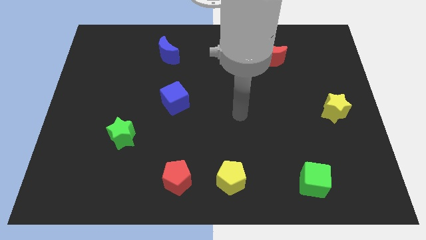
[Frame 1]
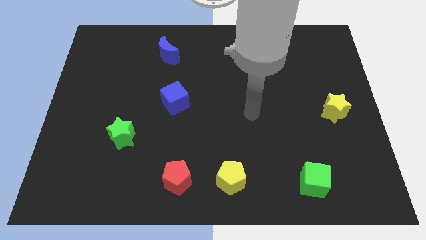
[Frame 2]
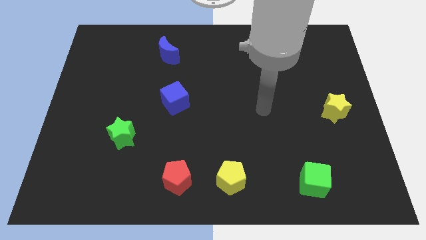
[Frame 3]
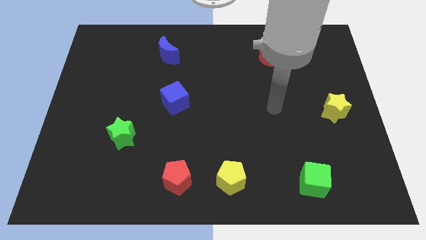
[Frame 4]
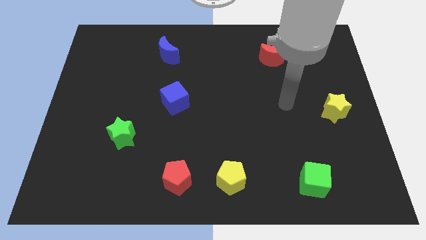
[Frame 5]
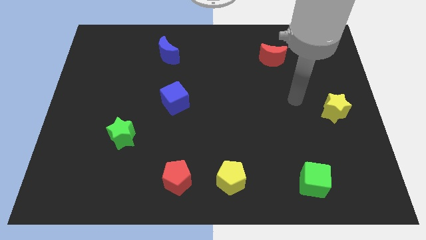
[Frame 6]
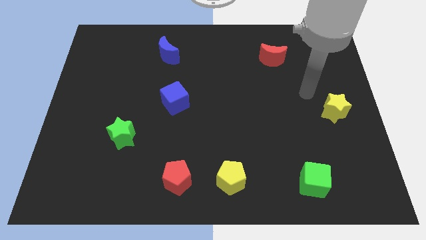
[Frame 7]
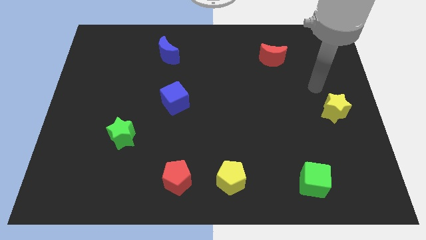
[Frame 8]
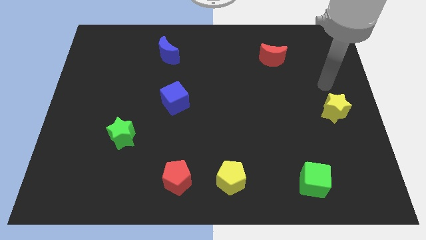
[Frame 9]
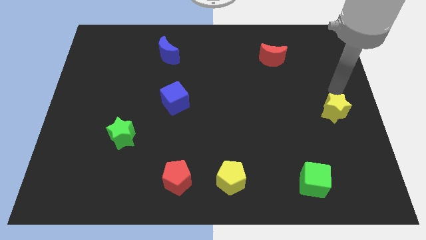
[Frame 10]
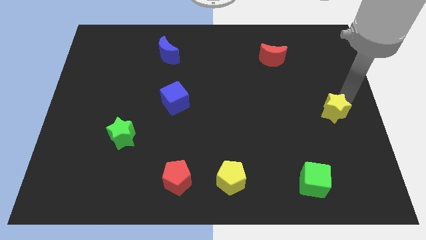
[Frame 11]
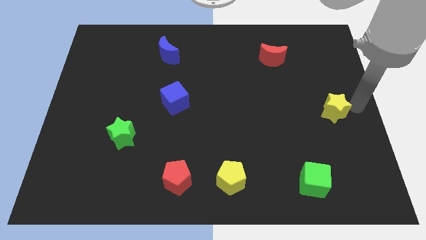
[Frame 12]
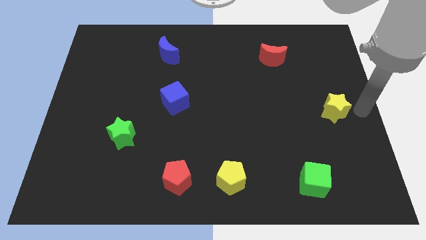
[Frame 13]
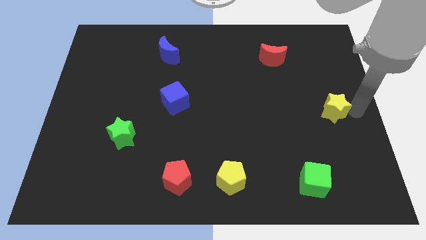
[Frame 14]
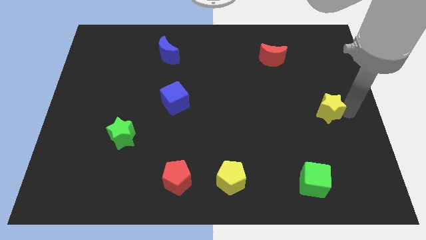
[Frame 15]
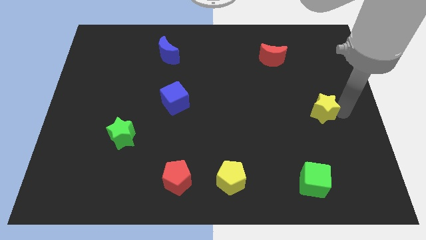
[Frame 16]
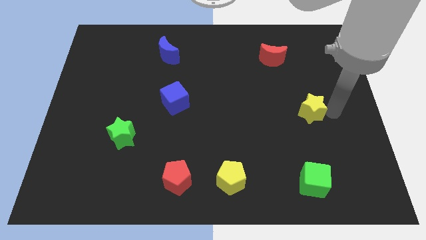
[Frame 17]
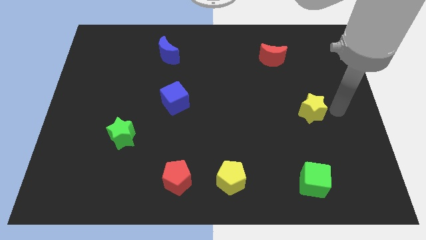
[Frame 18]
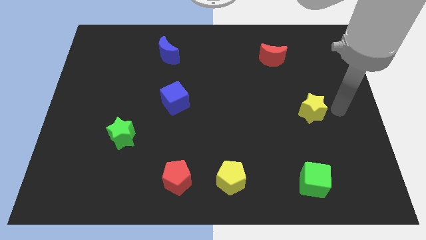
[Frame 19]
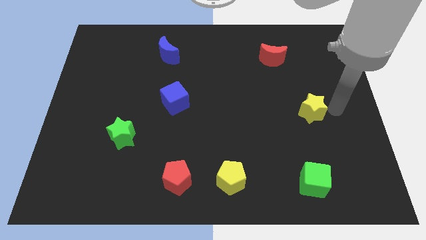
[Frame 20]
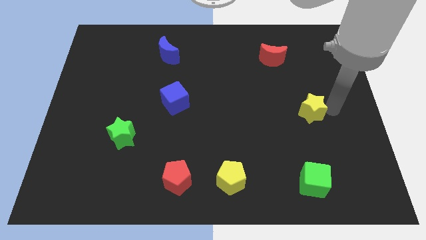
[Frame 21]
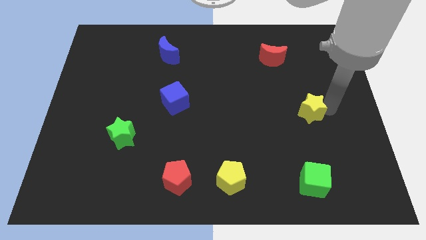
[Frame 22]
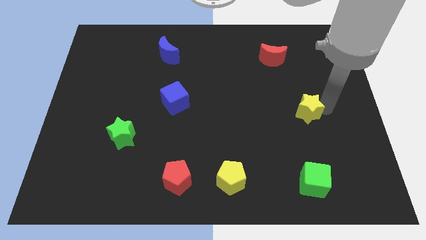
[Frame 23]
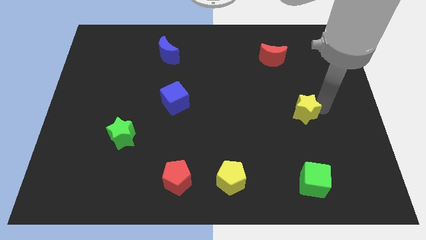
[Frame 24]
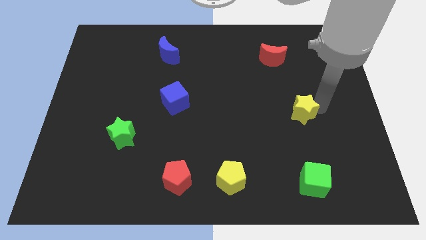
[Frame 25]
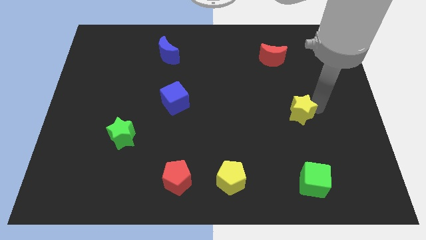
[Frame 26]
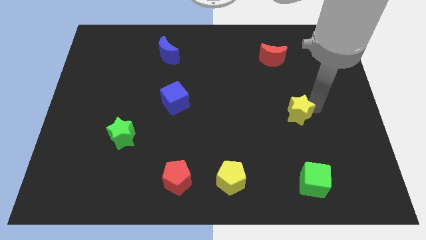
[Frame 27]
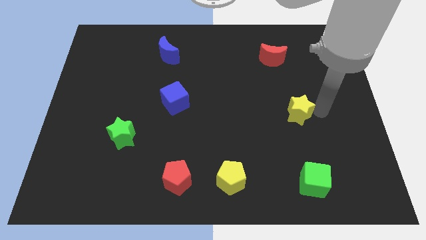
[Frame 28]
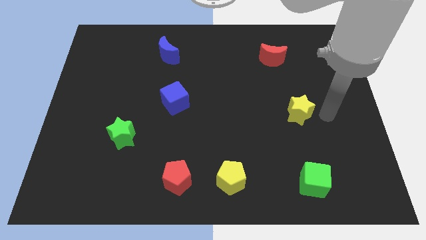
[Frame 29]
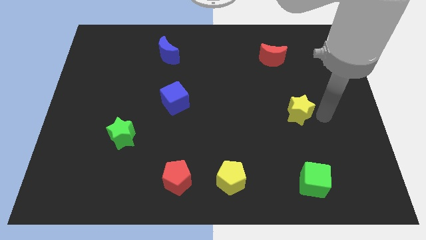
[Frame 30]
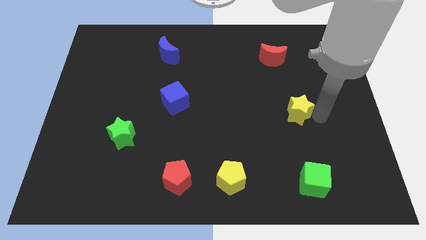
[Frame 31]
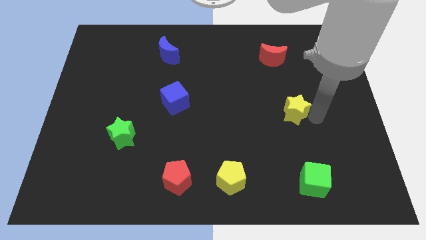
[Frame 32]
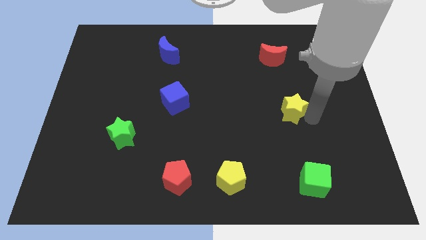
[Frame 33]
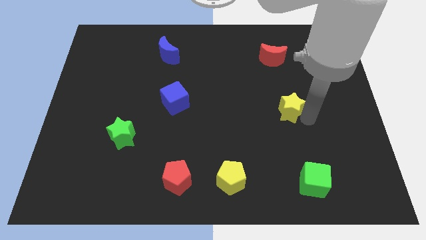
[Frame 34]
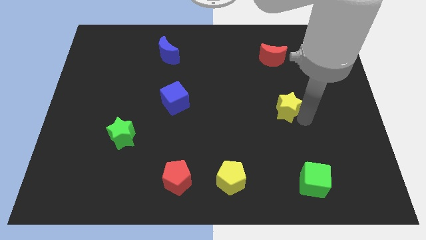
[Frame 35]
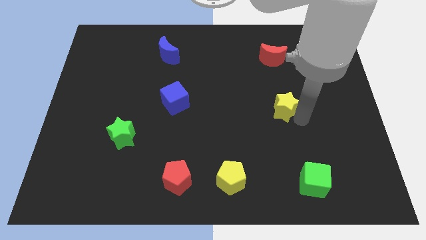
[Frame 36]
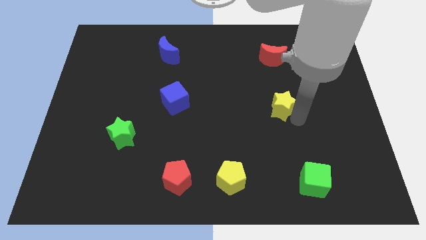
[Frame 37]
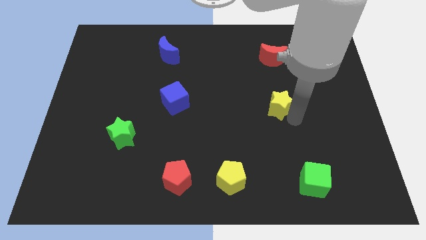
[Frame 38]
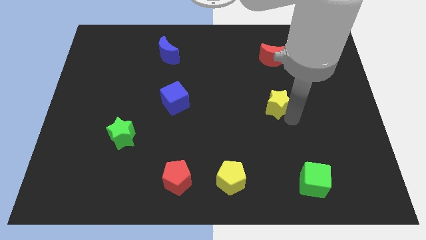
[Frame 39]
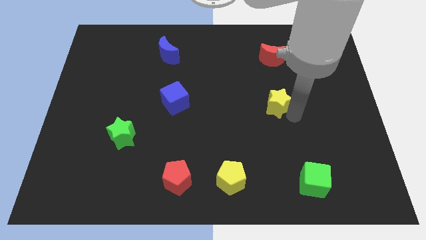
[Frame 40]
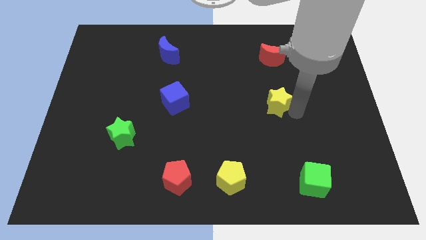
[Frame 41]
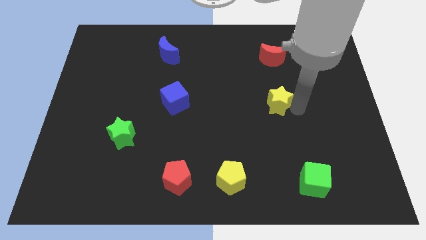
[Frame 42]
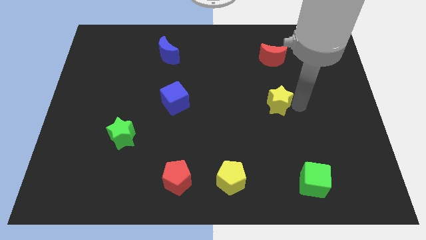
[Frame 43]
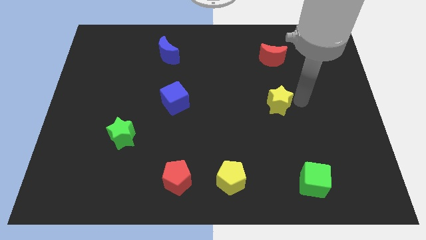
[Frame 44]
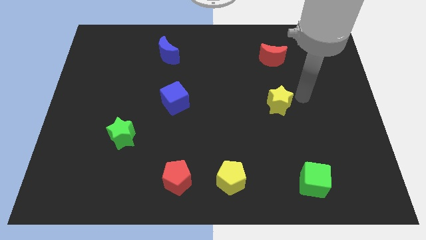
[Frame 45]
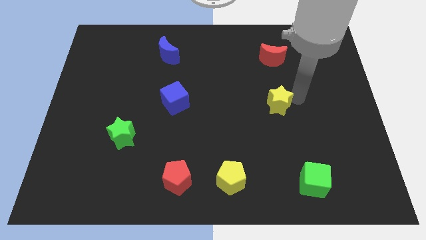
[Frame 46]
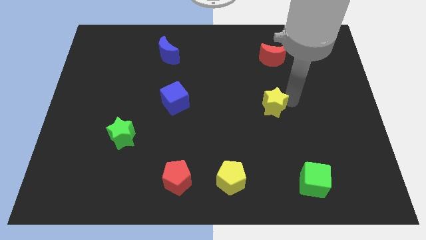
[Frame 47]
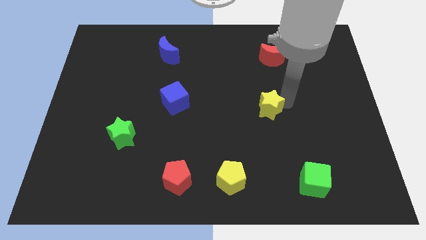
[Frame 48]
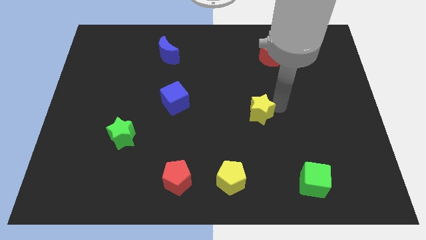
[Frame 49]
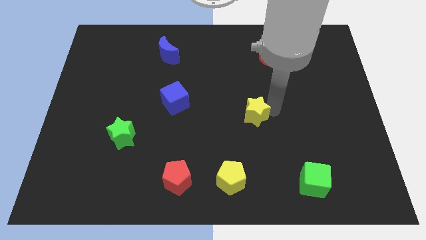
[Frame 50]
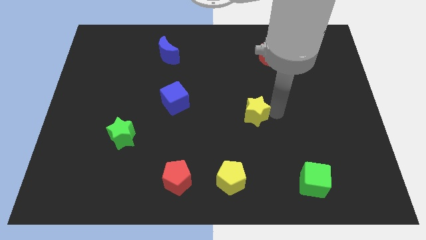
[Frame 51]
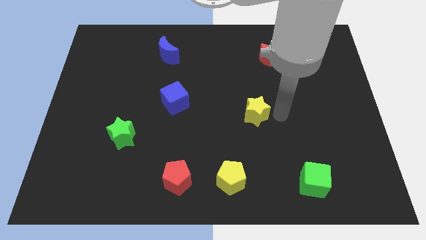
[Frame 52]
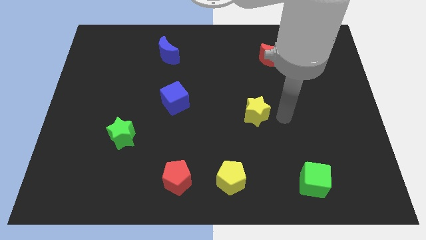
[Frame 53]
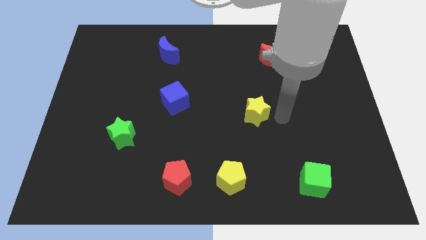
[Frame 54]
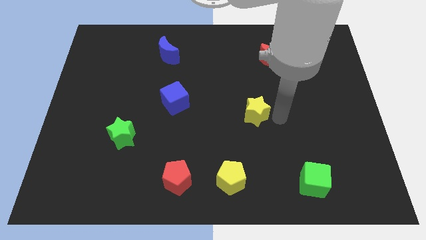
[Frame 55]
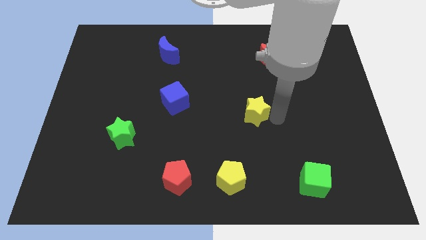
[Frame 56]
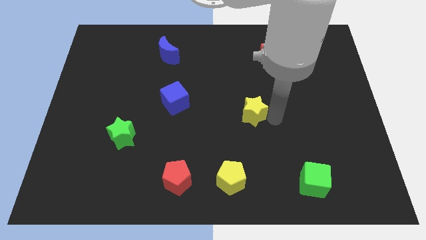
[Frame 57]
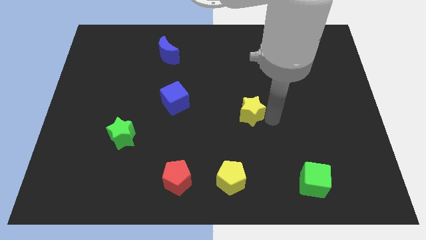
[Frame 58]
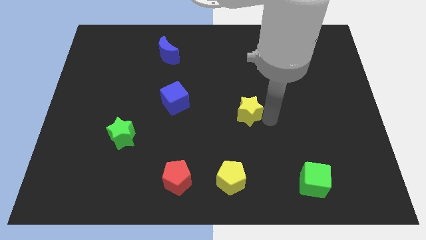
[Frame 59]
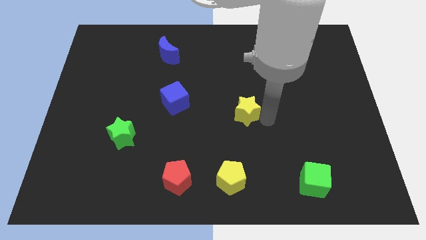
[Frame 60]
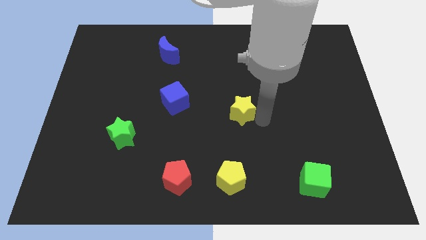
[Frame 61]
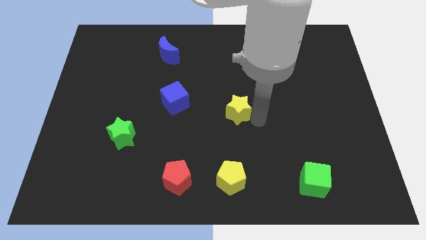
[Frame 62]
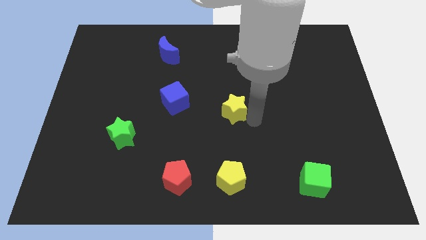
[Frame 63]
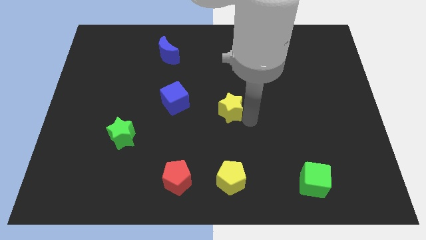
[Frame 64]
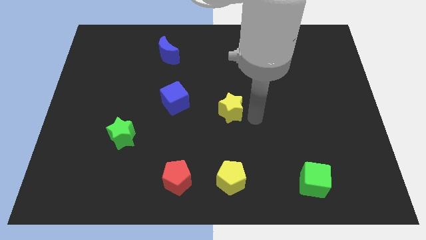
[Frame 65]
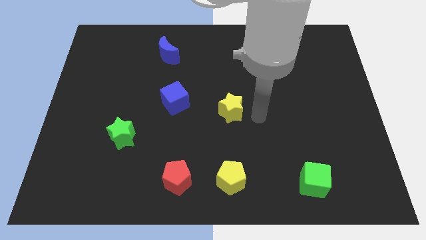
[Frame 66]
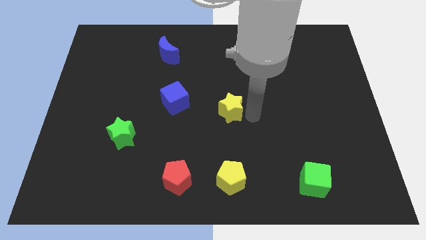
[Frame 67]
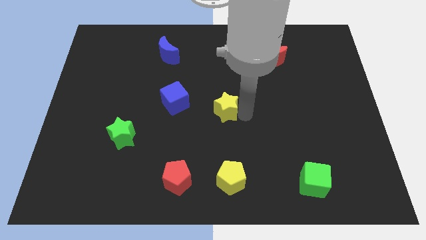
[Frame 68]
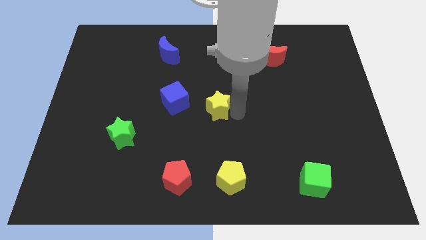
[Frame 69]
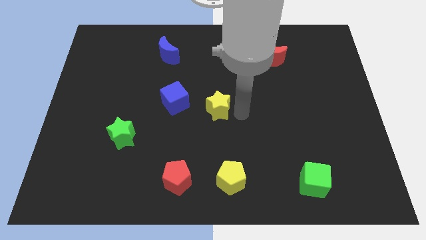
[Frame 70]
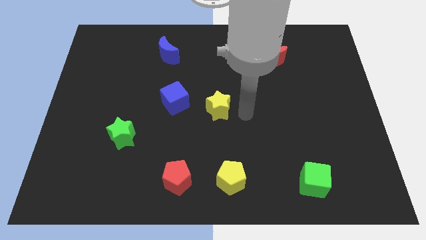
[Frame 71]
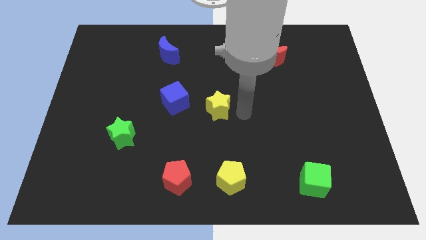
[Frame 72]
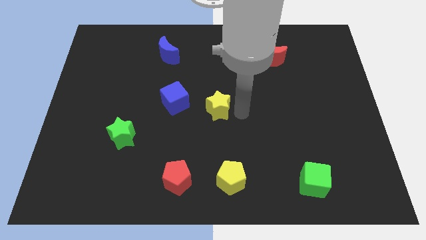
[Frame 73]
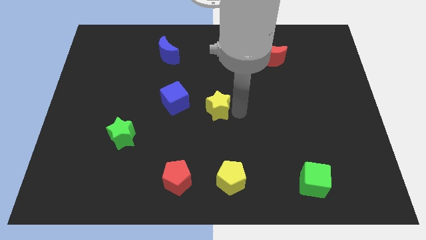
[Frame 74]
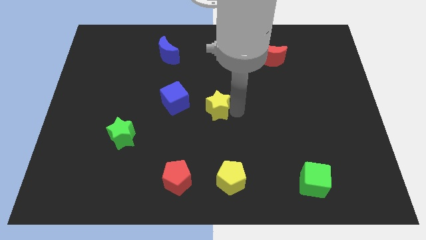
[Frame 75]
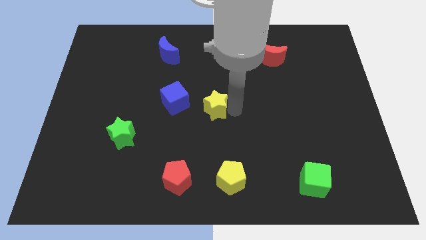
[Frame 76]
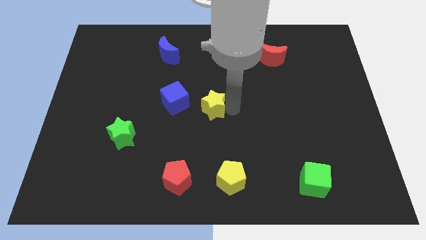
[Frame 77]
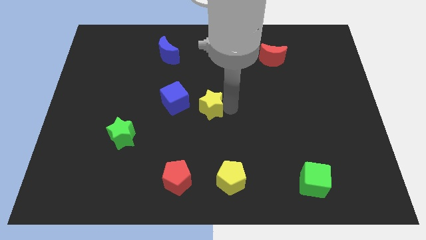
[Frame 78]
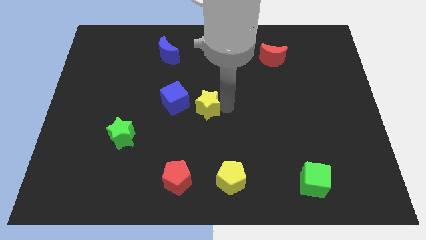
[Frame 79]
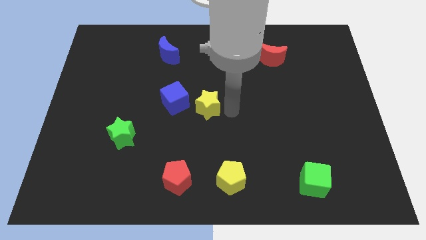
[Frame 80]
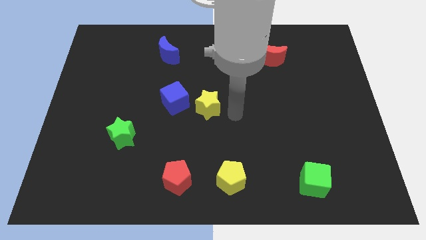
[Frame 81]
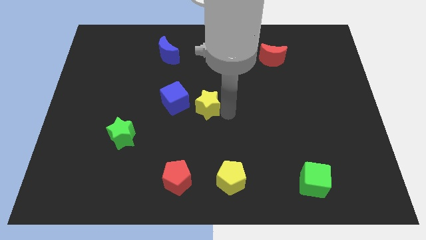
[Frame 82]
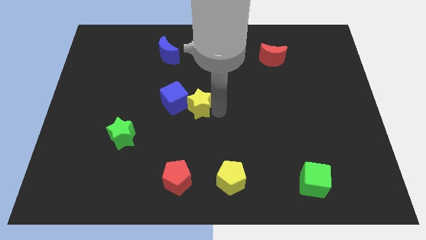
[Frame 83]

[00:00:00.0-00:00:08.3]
move the yellow star to the blue cube

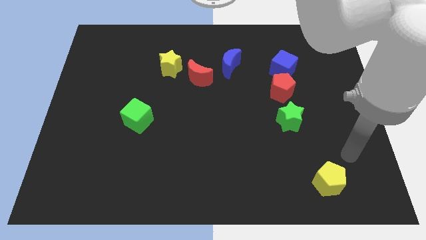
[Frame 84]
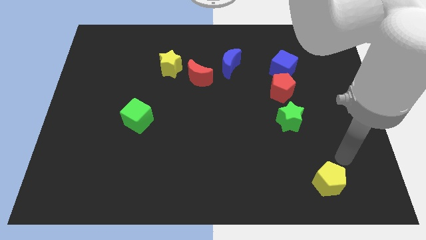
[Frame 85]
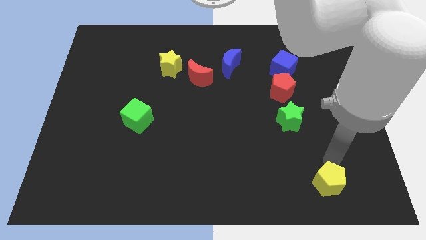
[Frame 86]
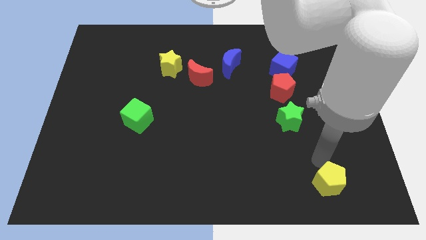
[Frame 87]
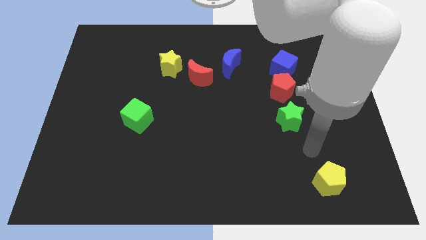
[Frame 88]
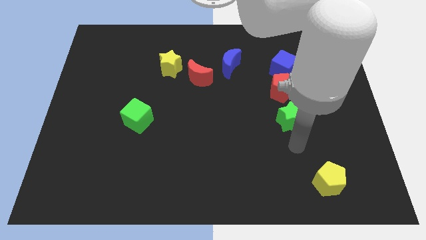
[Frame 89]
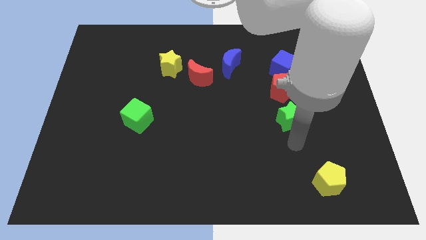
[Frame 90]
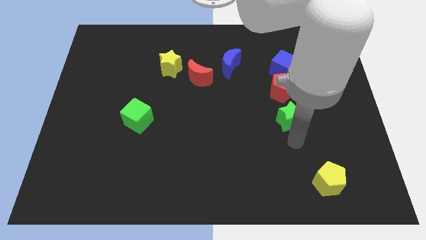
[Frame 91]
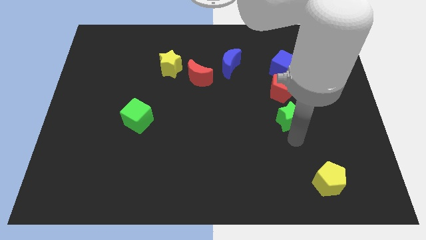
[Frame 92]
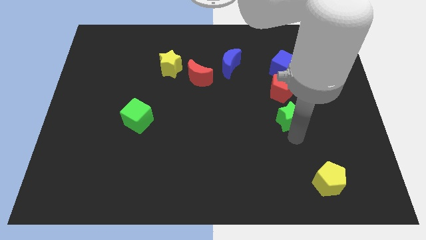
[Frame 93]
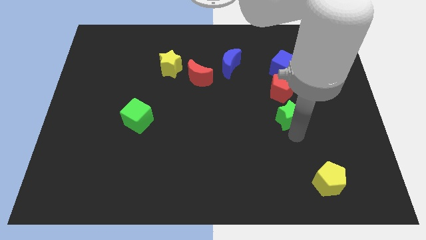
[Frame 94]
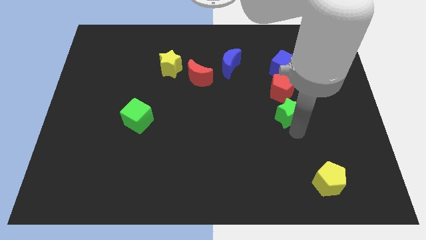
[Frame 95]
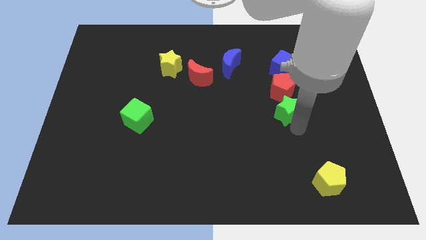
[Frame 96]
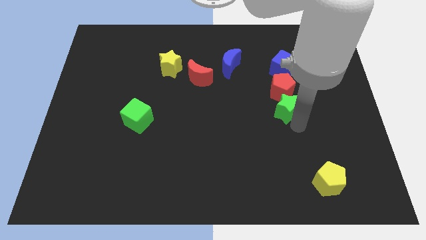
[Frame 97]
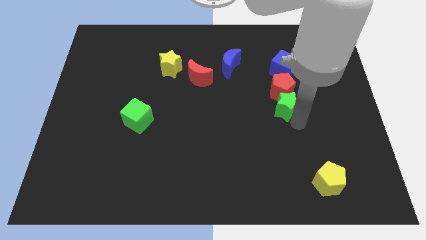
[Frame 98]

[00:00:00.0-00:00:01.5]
move the green star towards the red pentagon
